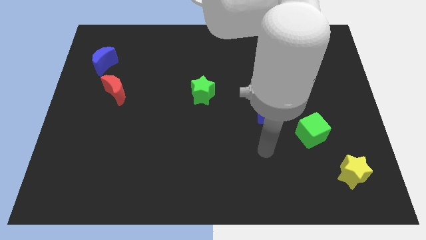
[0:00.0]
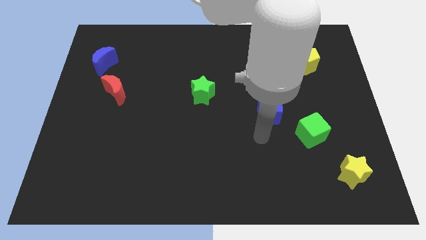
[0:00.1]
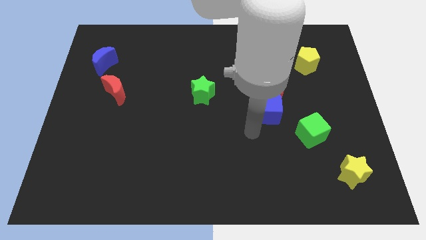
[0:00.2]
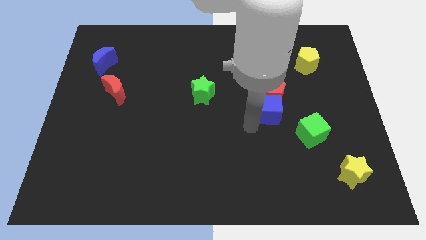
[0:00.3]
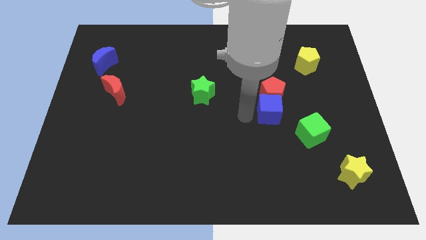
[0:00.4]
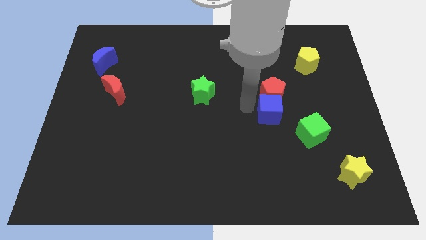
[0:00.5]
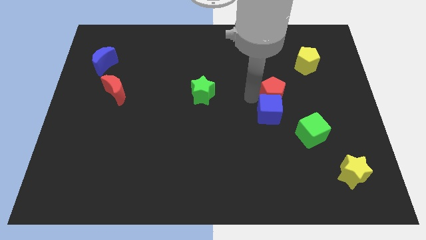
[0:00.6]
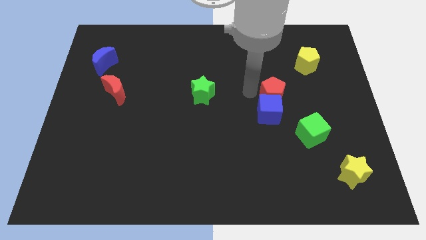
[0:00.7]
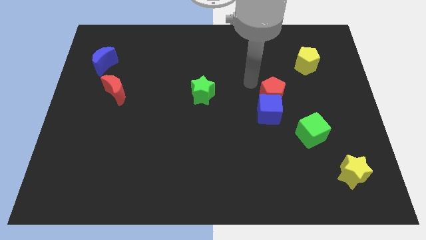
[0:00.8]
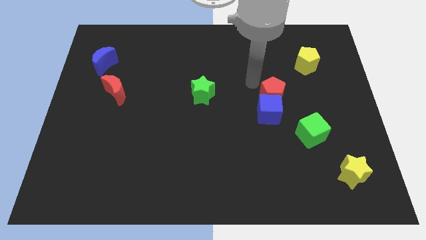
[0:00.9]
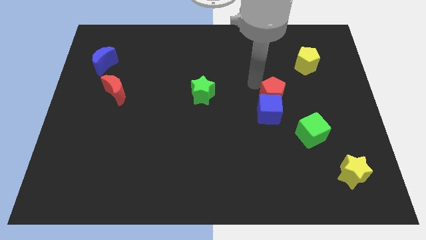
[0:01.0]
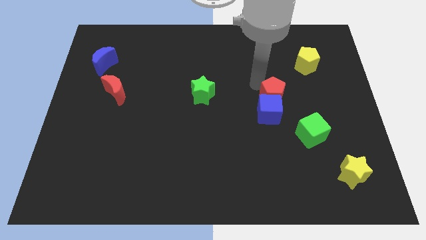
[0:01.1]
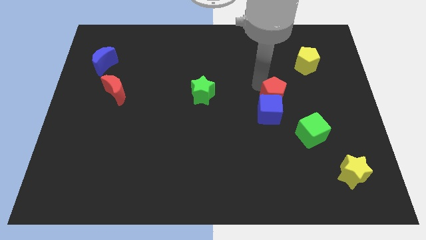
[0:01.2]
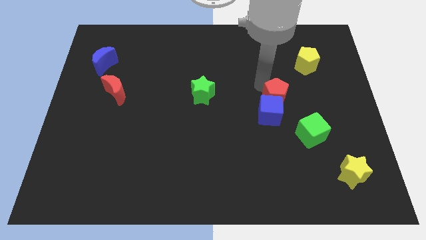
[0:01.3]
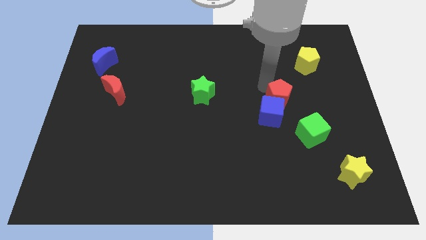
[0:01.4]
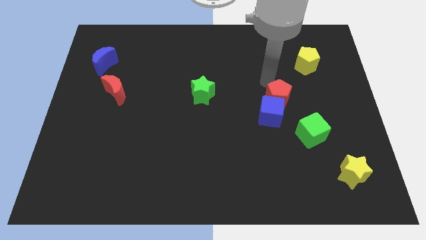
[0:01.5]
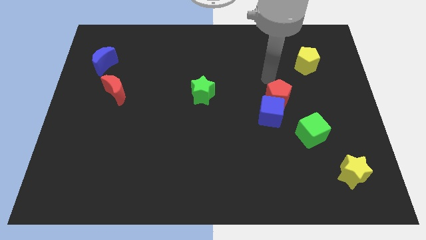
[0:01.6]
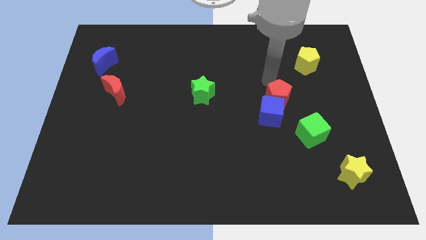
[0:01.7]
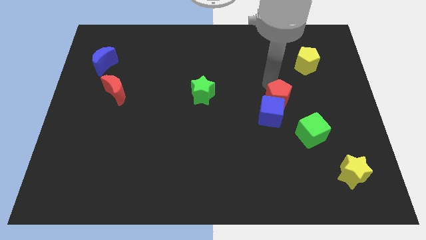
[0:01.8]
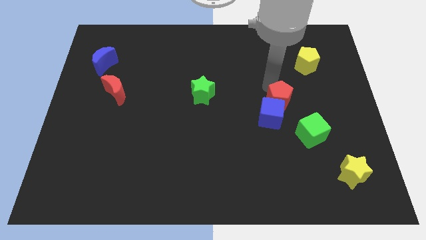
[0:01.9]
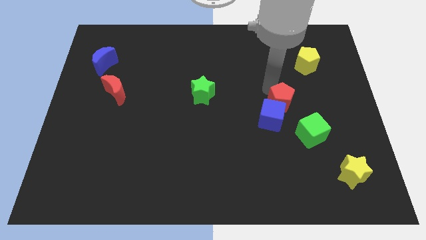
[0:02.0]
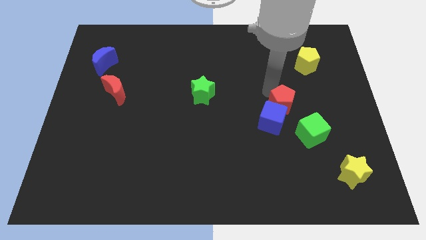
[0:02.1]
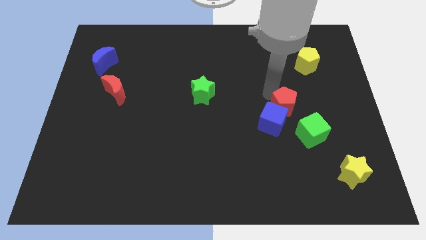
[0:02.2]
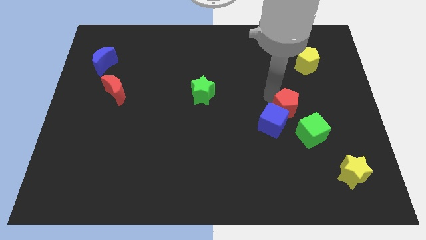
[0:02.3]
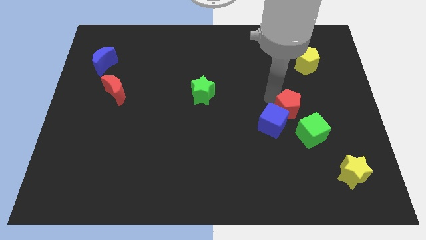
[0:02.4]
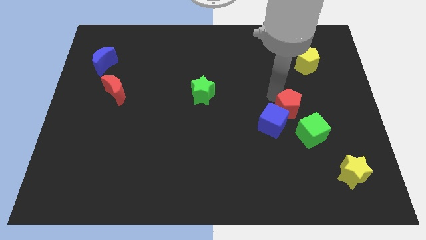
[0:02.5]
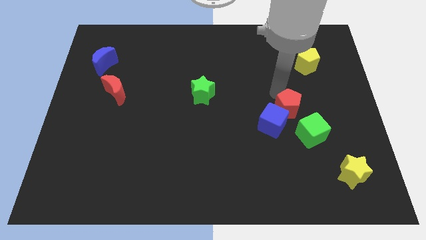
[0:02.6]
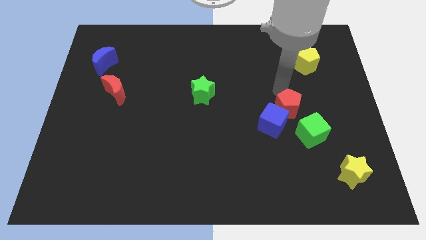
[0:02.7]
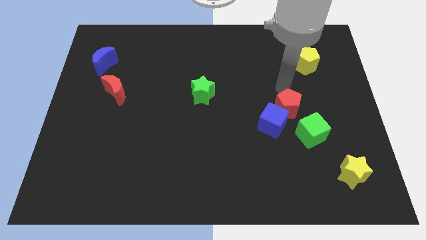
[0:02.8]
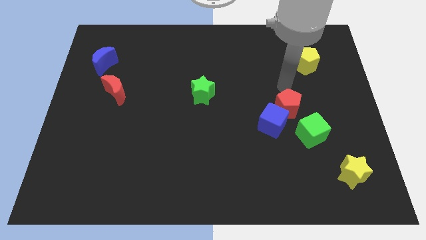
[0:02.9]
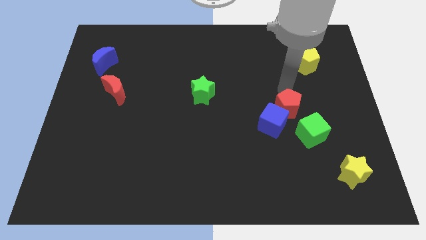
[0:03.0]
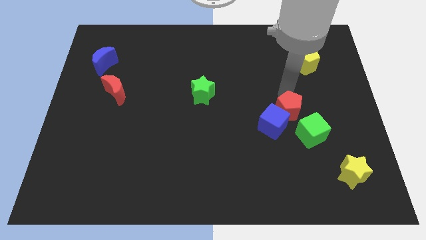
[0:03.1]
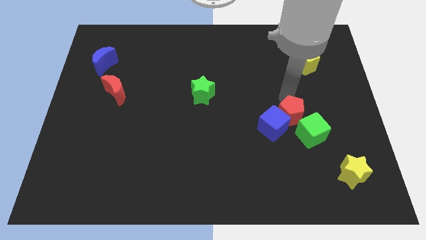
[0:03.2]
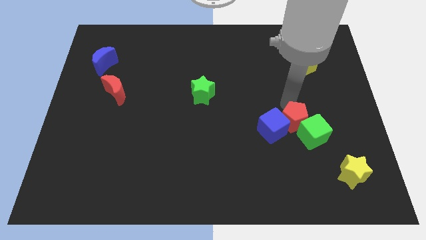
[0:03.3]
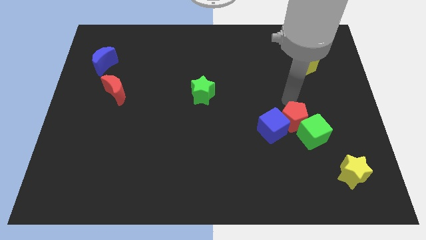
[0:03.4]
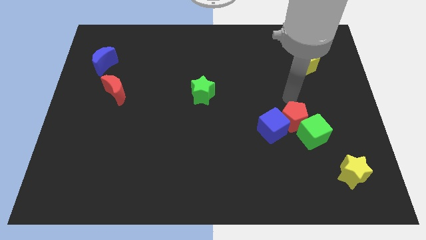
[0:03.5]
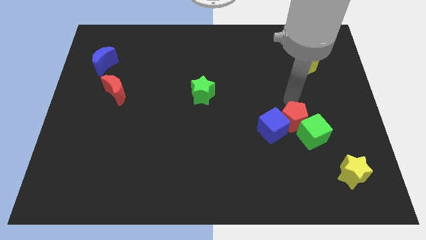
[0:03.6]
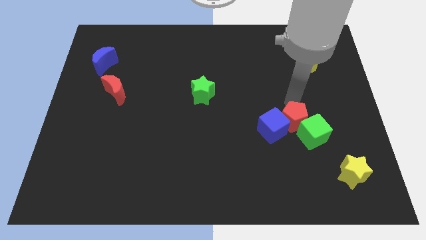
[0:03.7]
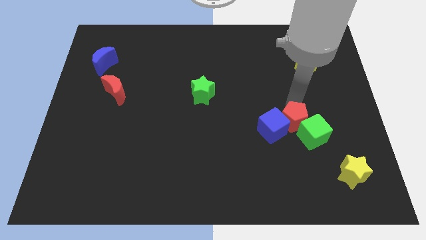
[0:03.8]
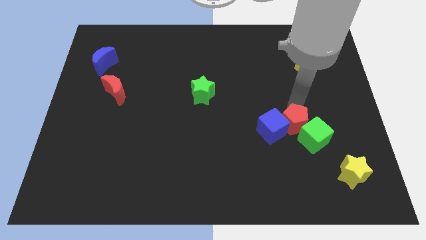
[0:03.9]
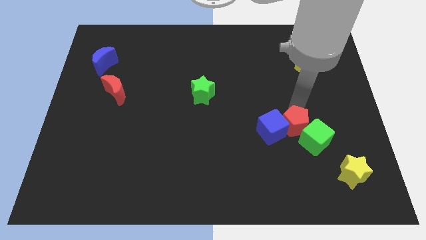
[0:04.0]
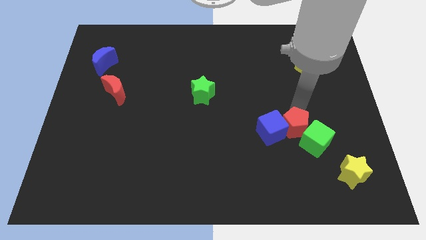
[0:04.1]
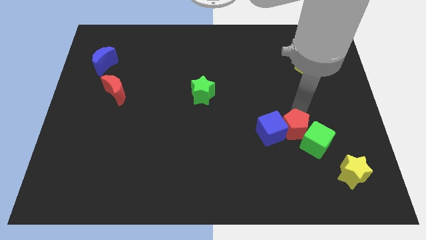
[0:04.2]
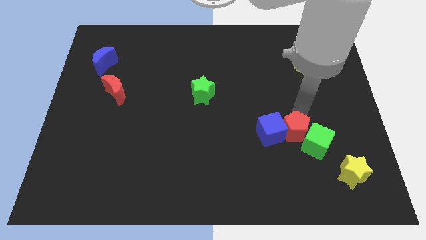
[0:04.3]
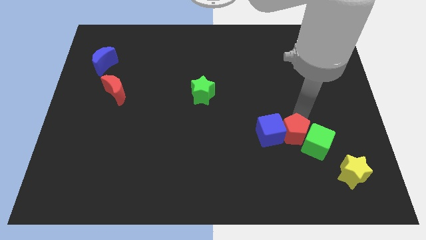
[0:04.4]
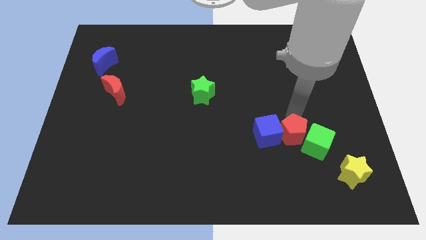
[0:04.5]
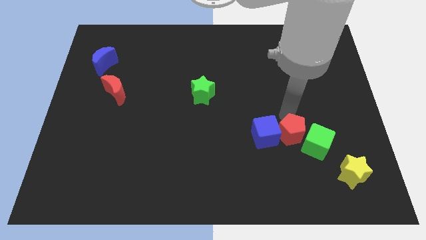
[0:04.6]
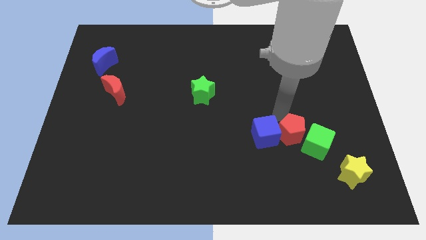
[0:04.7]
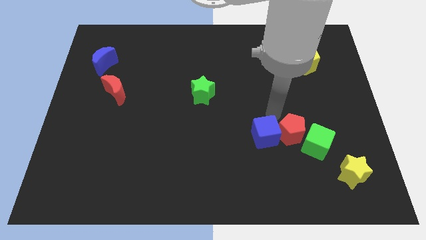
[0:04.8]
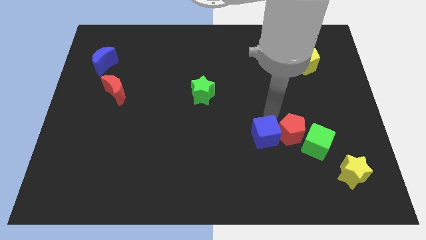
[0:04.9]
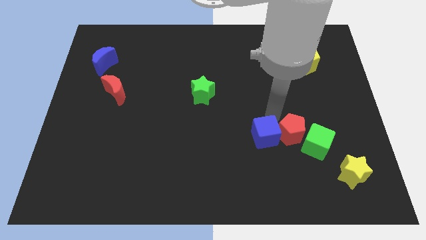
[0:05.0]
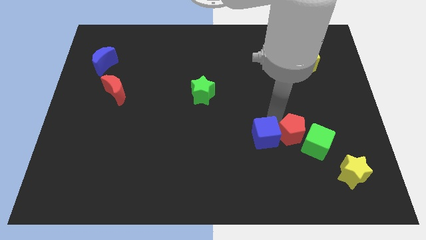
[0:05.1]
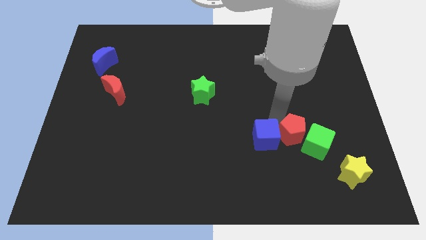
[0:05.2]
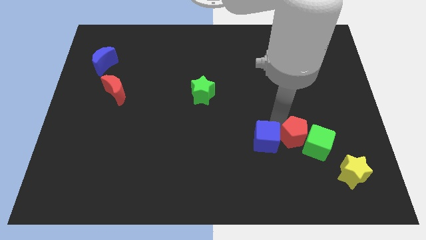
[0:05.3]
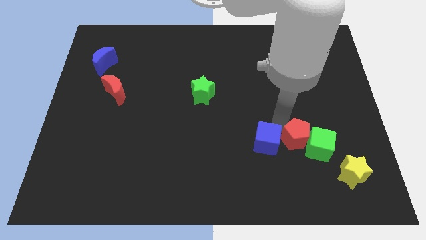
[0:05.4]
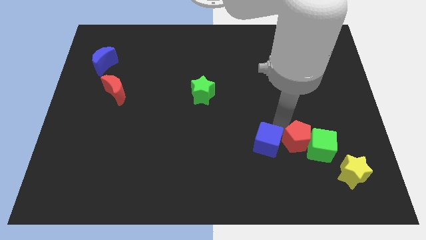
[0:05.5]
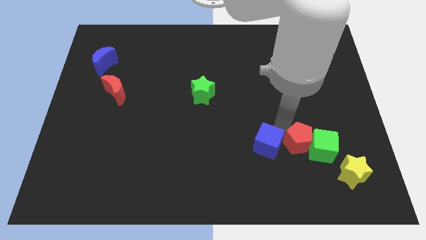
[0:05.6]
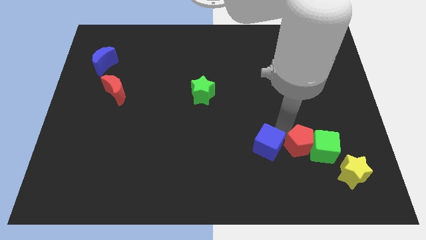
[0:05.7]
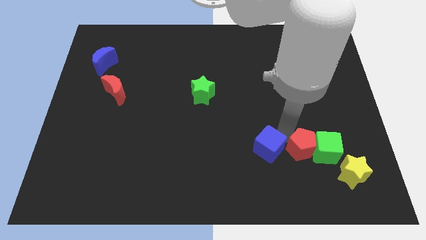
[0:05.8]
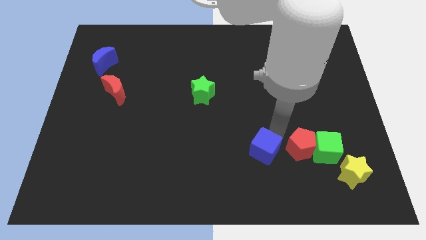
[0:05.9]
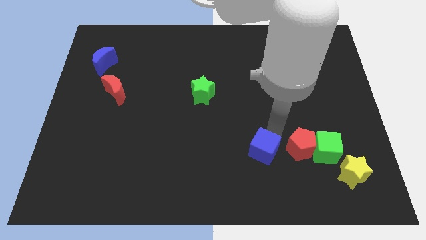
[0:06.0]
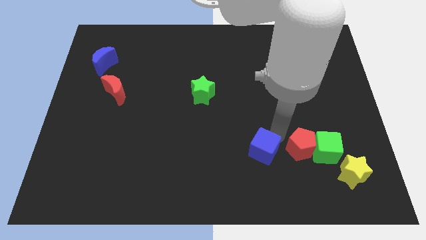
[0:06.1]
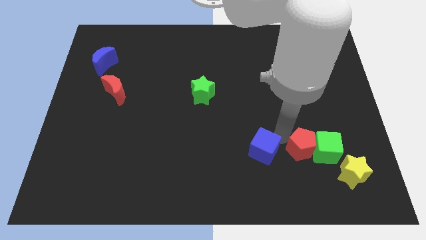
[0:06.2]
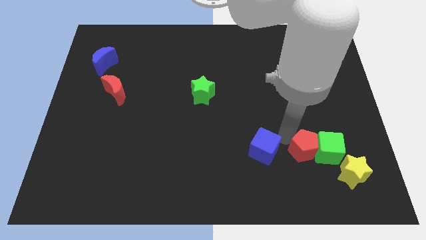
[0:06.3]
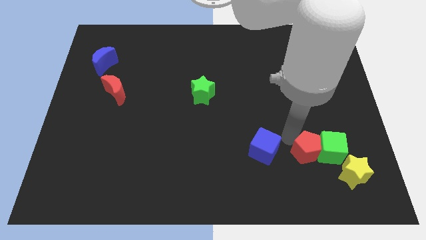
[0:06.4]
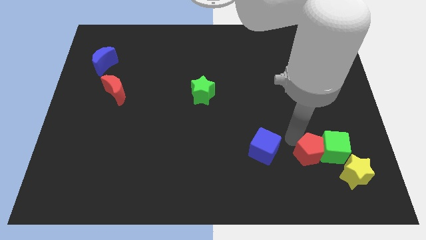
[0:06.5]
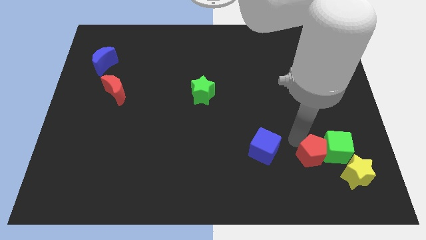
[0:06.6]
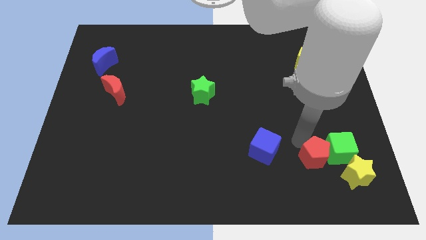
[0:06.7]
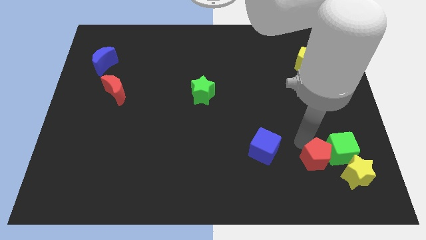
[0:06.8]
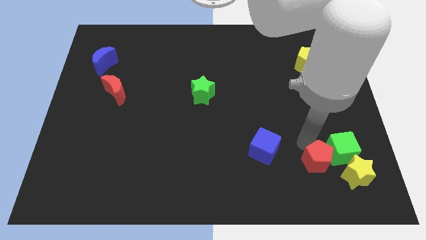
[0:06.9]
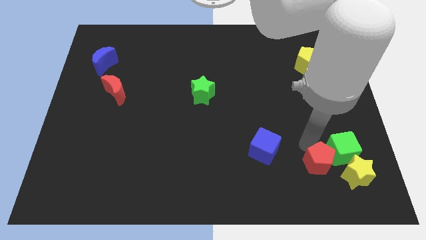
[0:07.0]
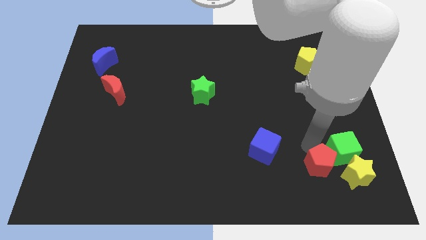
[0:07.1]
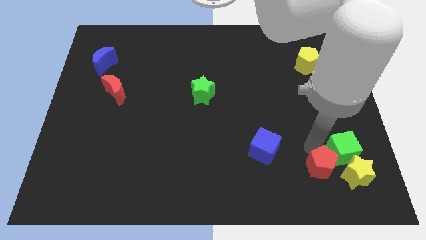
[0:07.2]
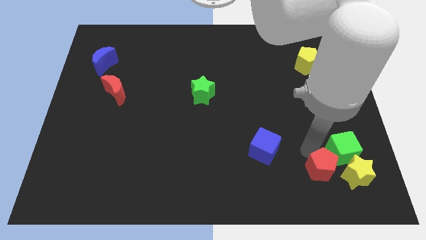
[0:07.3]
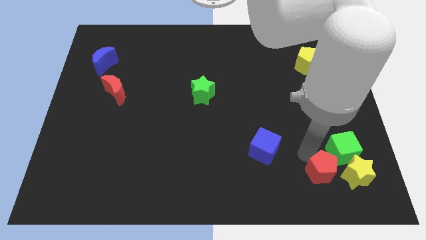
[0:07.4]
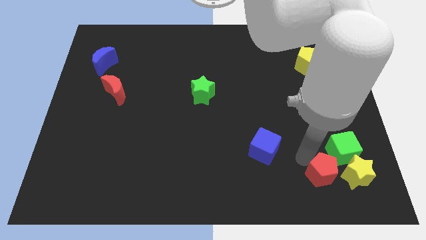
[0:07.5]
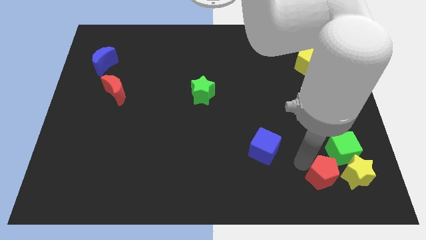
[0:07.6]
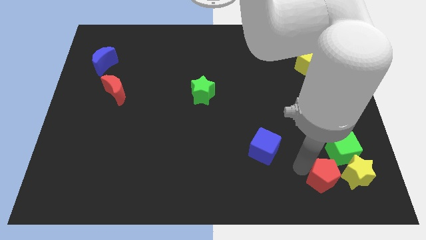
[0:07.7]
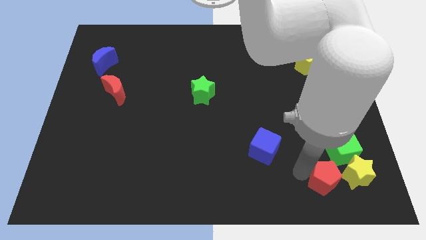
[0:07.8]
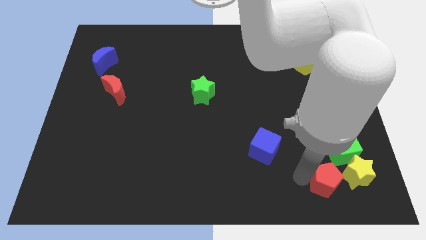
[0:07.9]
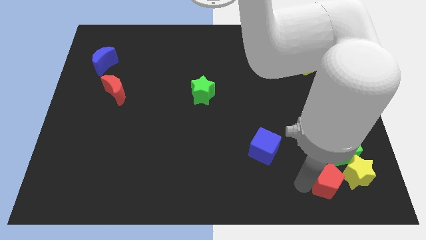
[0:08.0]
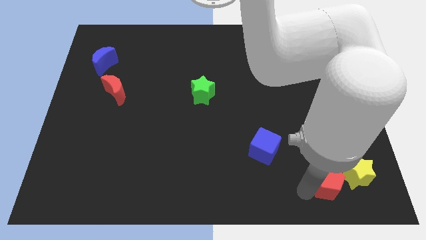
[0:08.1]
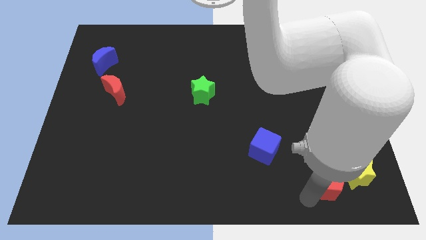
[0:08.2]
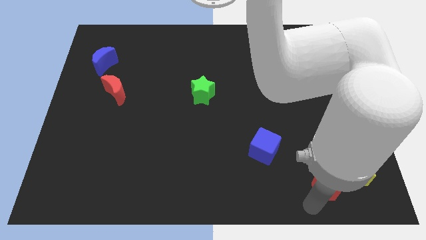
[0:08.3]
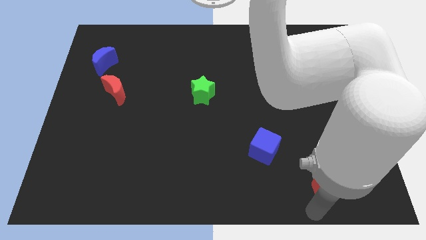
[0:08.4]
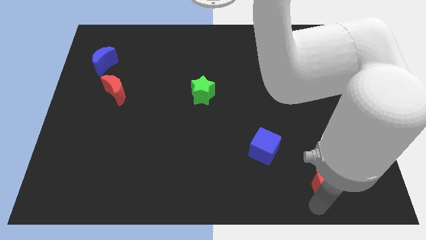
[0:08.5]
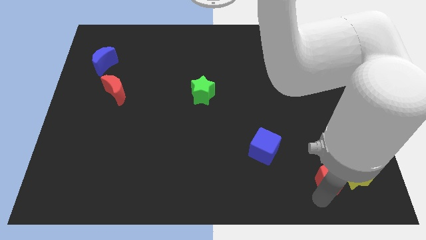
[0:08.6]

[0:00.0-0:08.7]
move the red pentagon towards the yellow star
